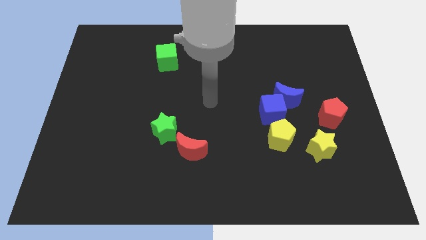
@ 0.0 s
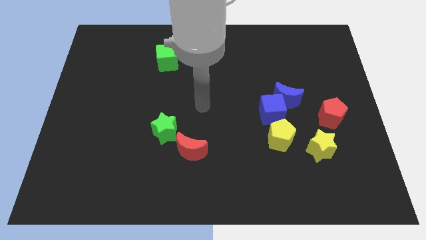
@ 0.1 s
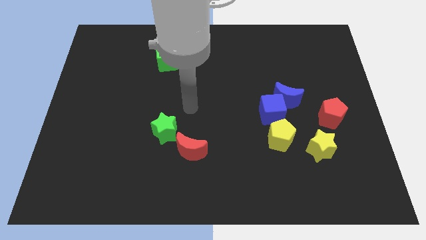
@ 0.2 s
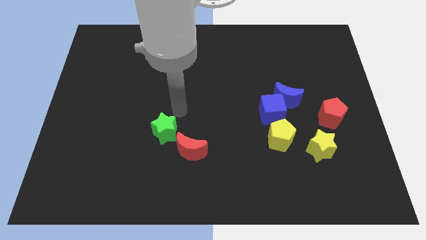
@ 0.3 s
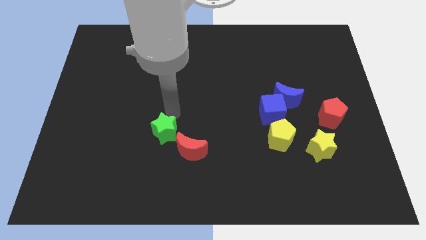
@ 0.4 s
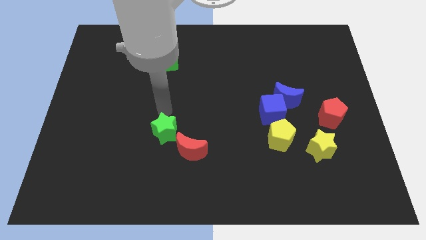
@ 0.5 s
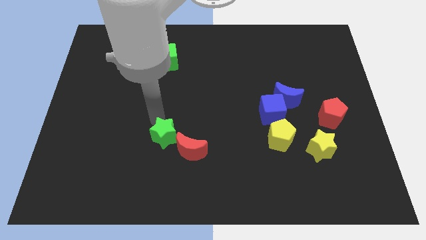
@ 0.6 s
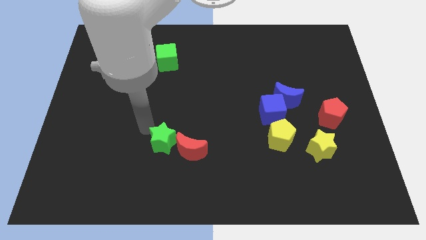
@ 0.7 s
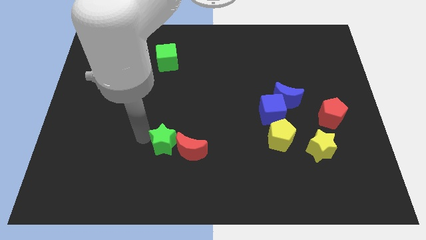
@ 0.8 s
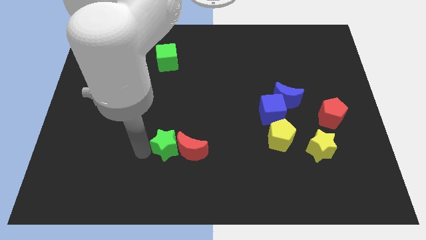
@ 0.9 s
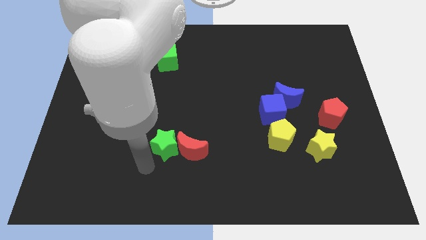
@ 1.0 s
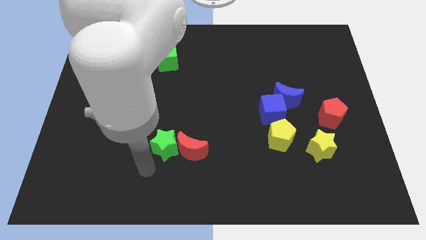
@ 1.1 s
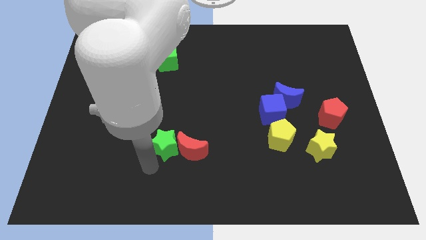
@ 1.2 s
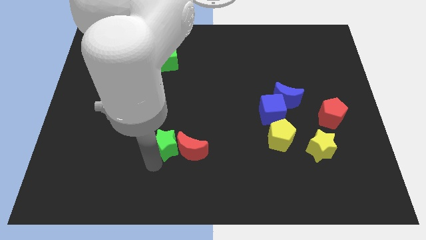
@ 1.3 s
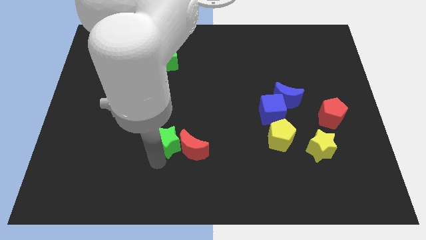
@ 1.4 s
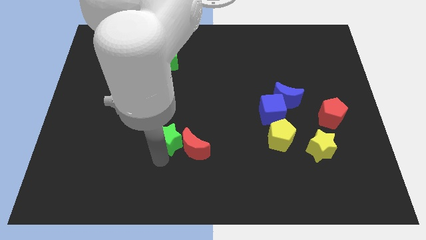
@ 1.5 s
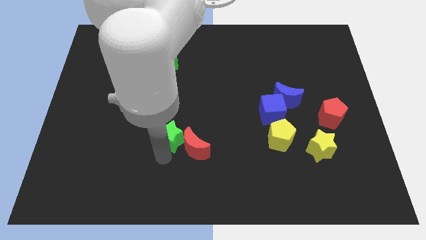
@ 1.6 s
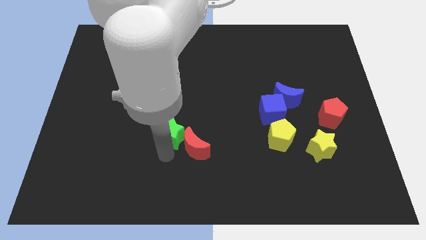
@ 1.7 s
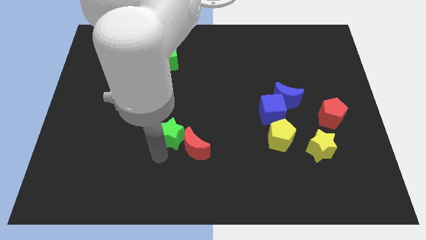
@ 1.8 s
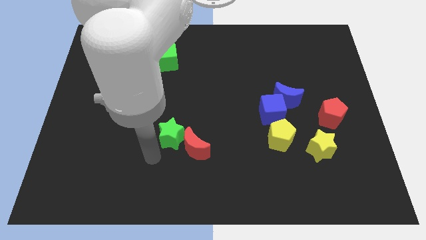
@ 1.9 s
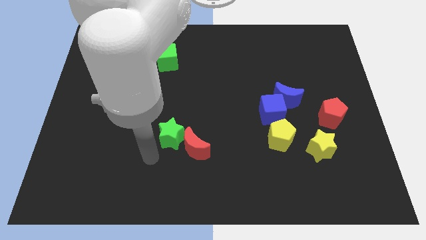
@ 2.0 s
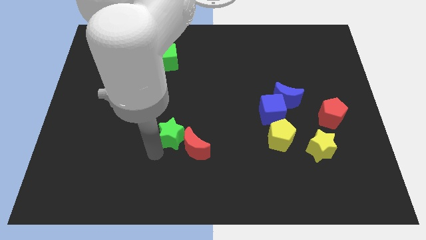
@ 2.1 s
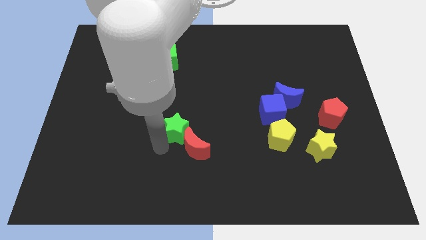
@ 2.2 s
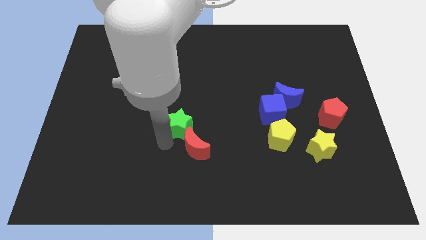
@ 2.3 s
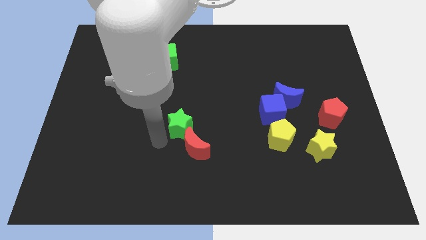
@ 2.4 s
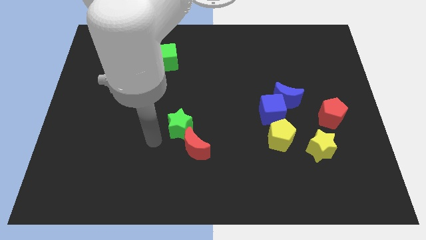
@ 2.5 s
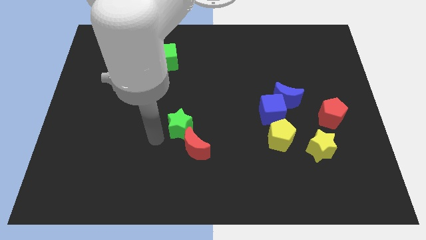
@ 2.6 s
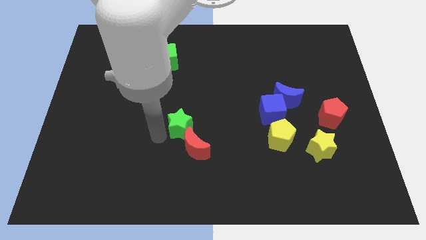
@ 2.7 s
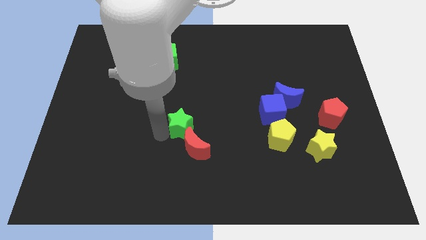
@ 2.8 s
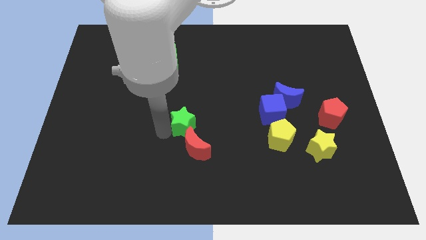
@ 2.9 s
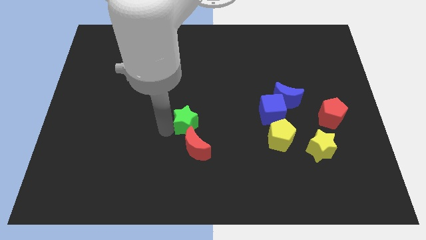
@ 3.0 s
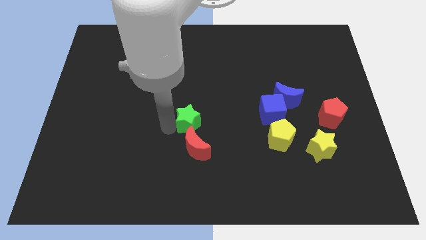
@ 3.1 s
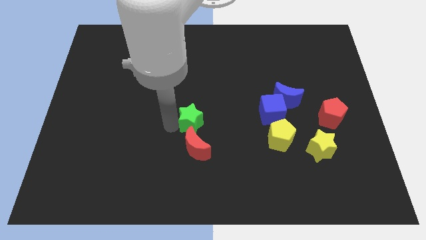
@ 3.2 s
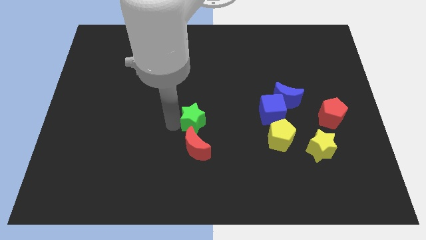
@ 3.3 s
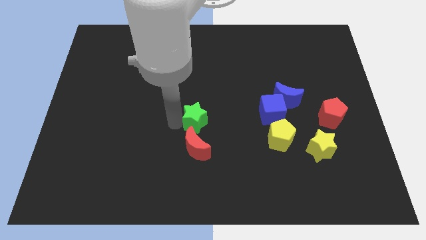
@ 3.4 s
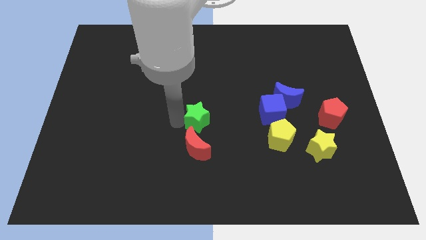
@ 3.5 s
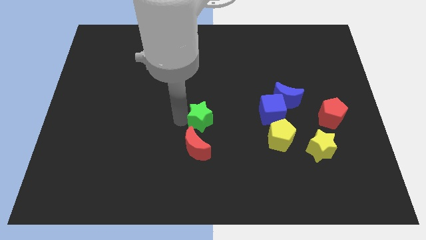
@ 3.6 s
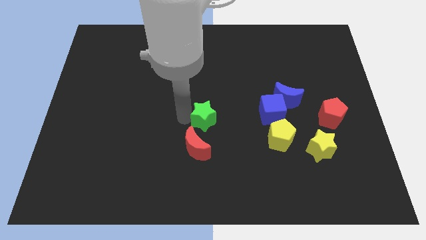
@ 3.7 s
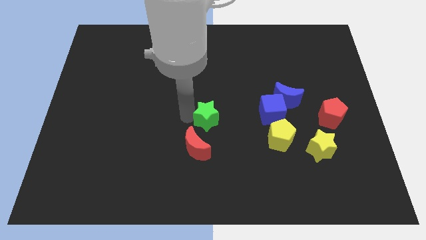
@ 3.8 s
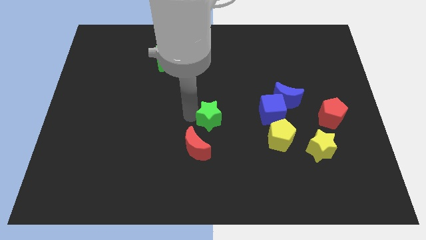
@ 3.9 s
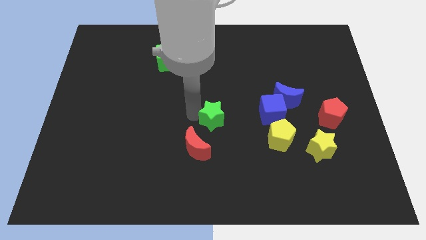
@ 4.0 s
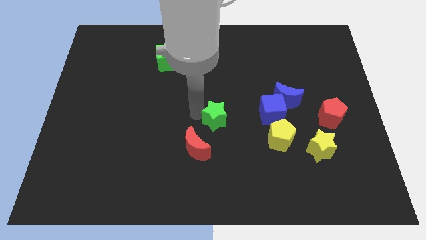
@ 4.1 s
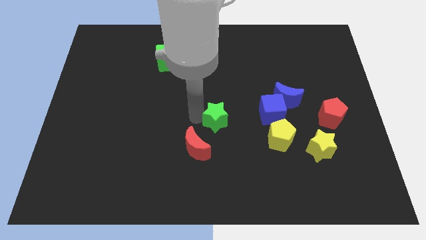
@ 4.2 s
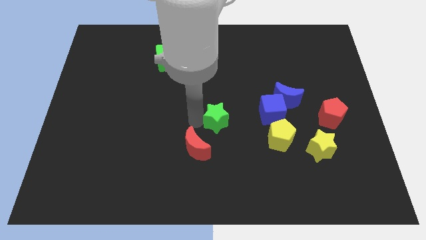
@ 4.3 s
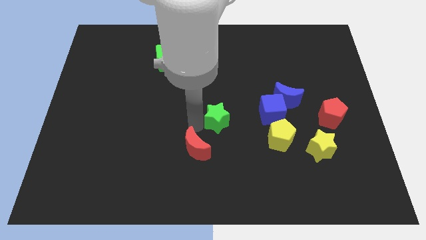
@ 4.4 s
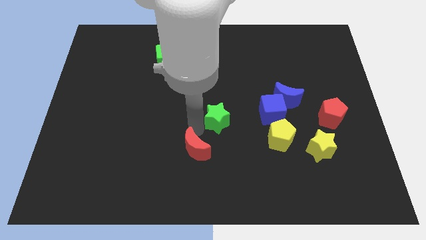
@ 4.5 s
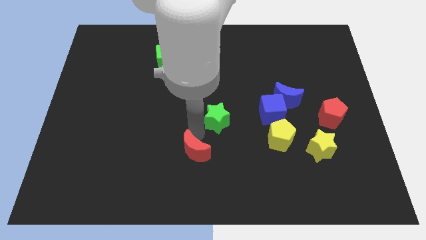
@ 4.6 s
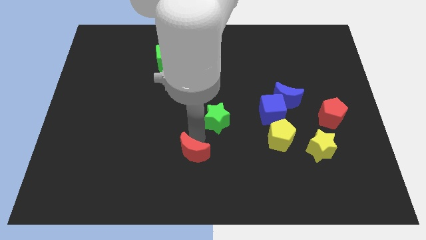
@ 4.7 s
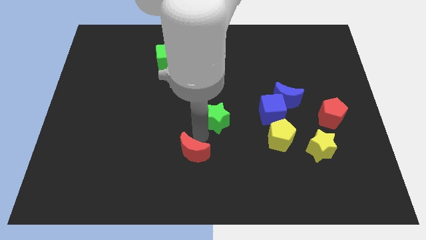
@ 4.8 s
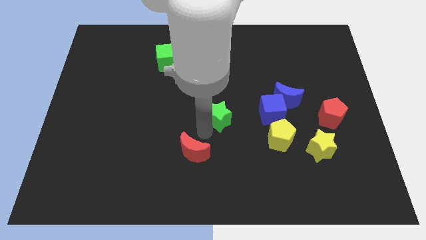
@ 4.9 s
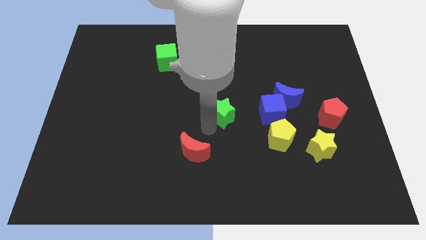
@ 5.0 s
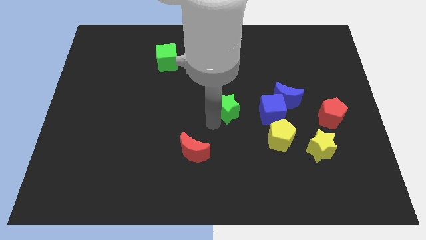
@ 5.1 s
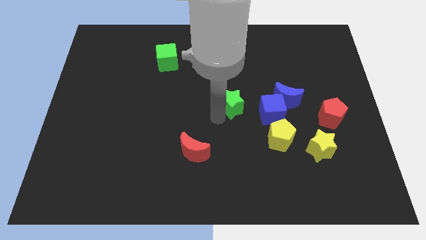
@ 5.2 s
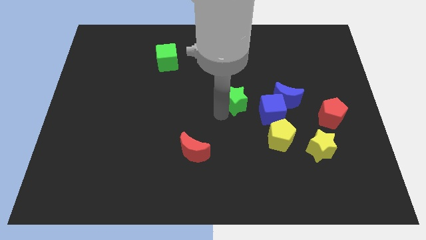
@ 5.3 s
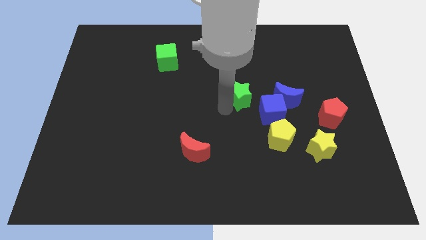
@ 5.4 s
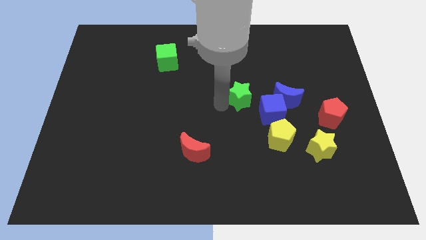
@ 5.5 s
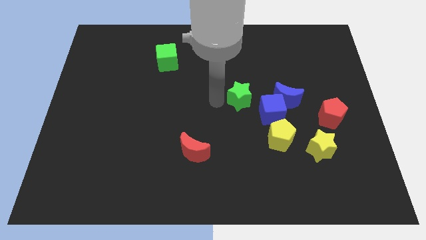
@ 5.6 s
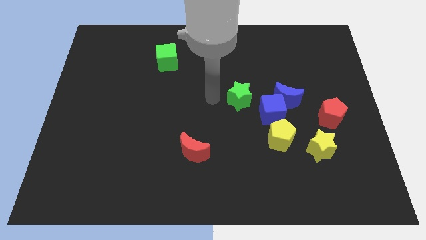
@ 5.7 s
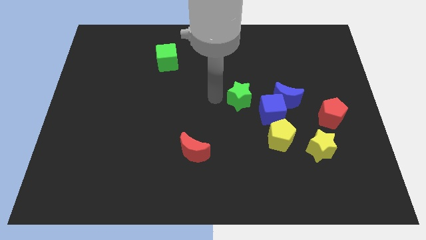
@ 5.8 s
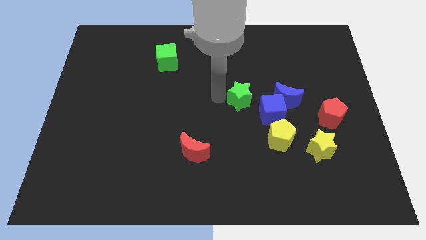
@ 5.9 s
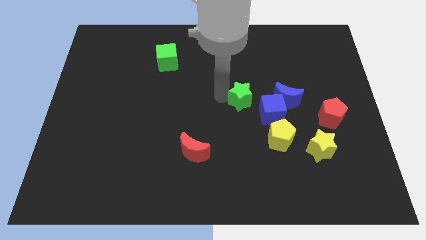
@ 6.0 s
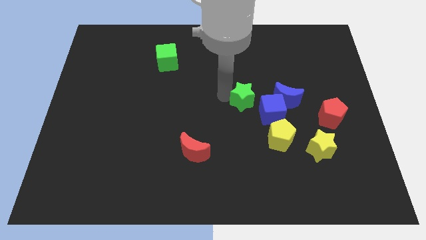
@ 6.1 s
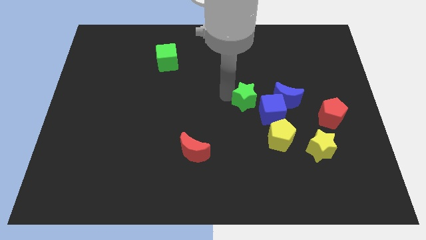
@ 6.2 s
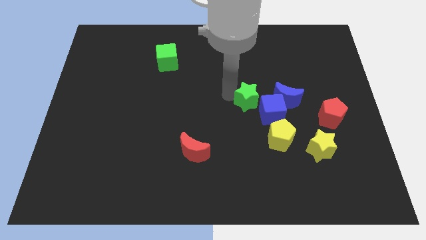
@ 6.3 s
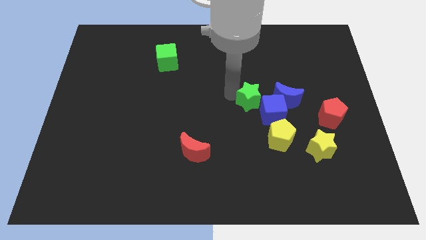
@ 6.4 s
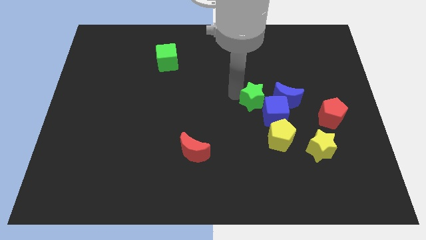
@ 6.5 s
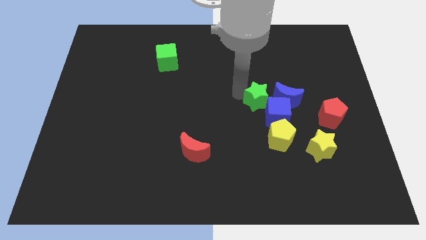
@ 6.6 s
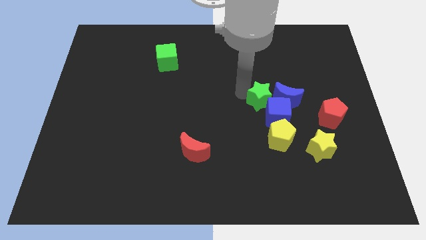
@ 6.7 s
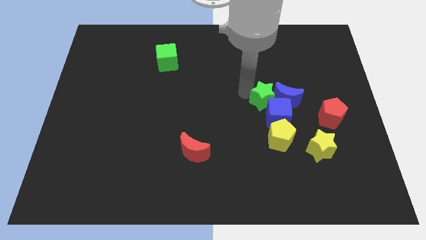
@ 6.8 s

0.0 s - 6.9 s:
push the green star next to the blue moon

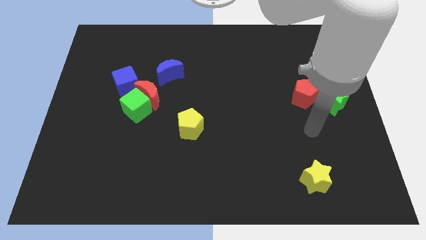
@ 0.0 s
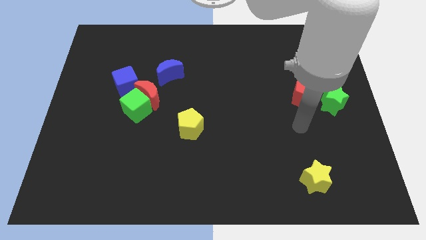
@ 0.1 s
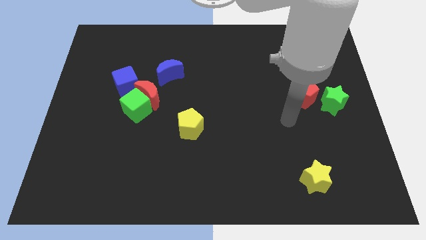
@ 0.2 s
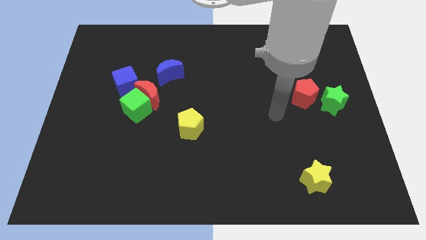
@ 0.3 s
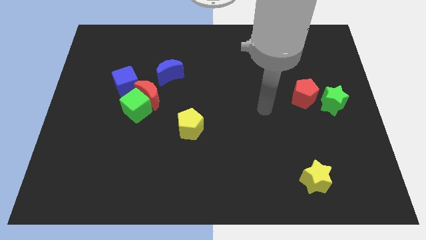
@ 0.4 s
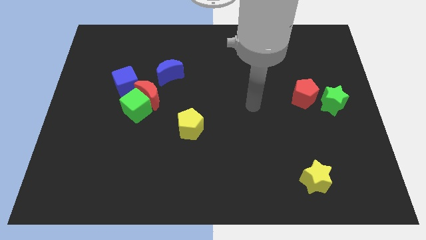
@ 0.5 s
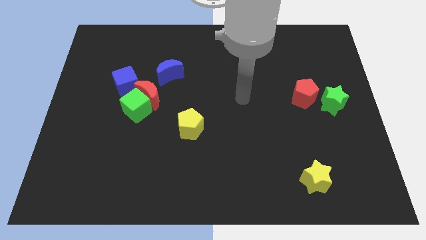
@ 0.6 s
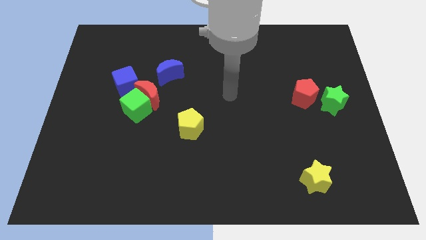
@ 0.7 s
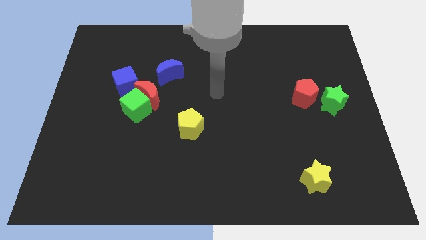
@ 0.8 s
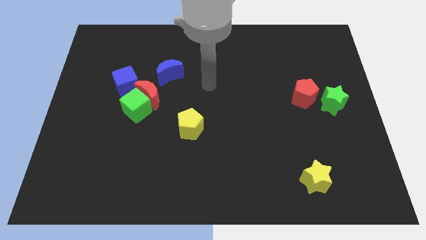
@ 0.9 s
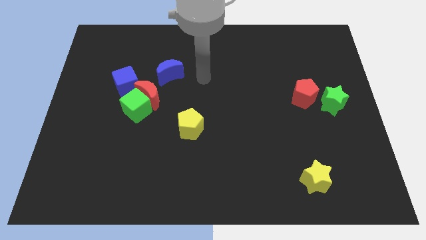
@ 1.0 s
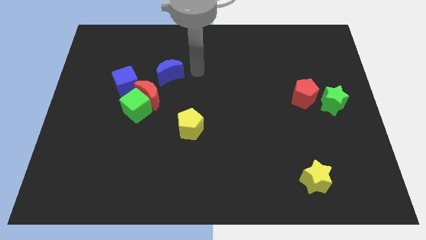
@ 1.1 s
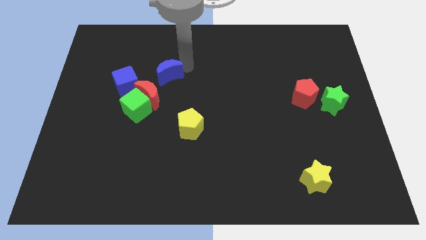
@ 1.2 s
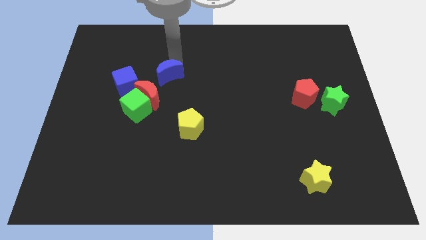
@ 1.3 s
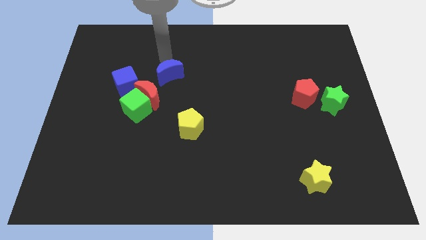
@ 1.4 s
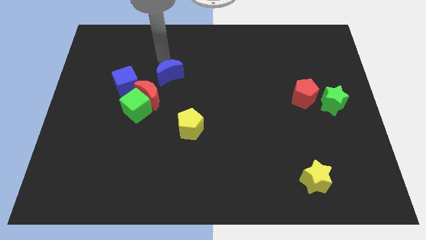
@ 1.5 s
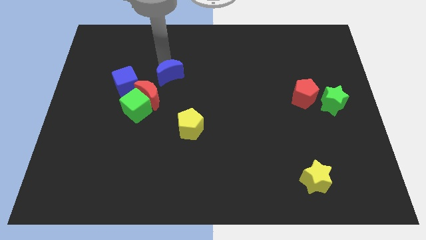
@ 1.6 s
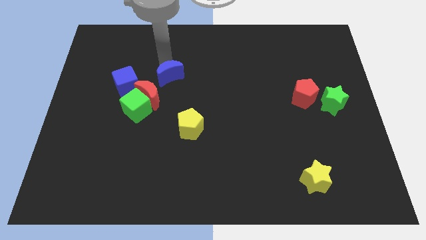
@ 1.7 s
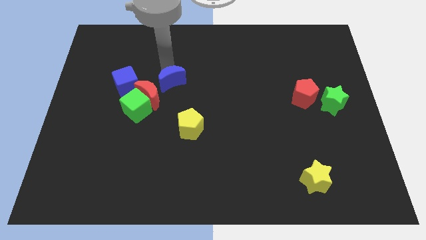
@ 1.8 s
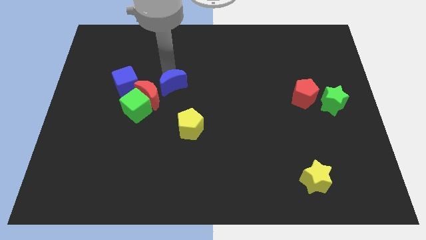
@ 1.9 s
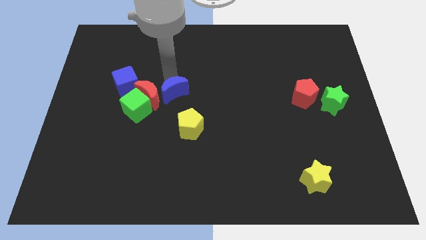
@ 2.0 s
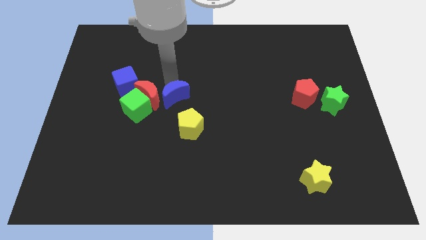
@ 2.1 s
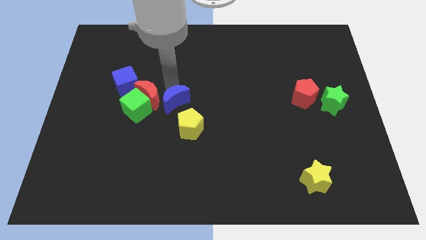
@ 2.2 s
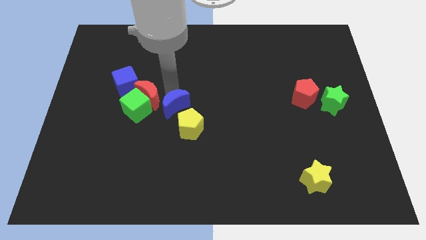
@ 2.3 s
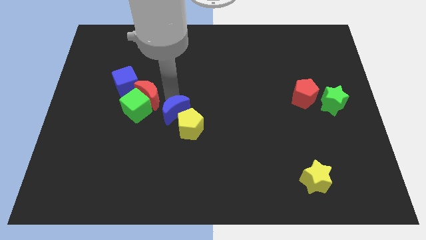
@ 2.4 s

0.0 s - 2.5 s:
put the blue moon next to the yellow pentagon
